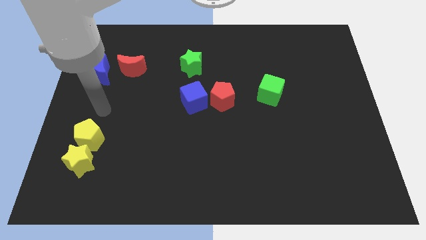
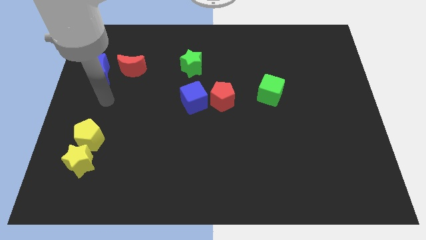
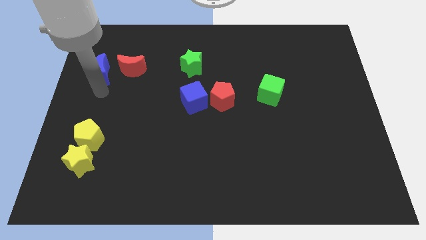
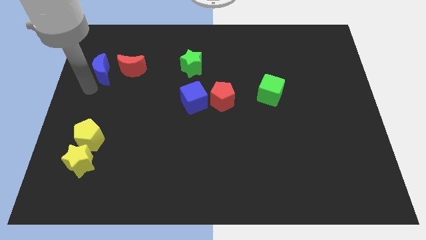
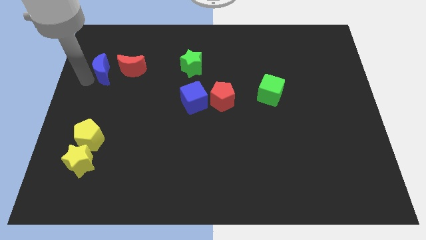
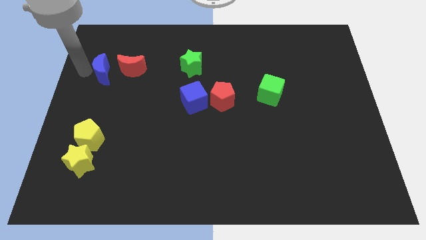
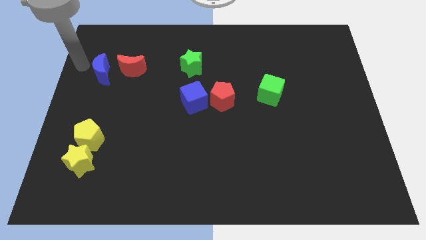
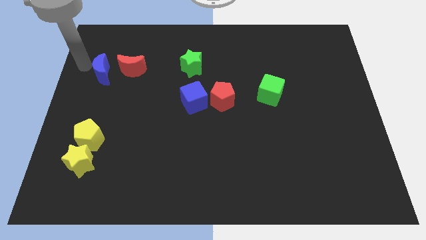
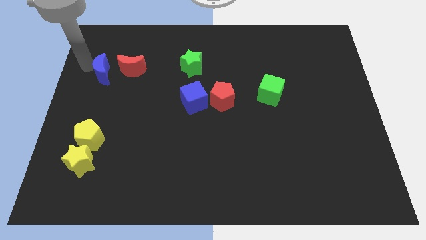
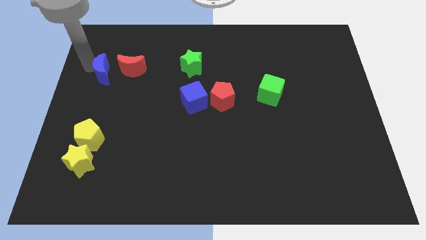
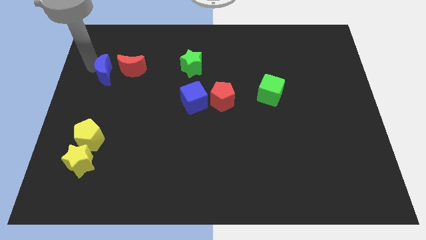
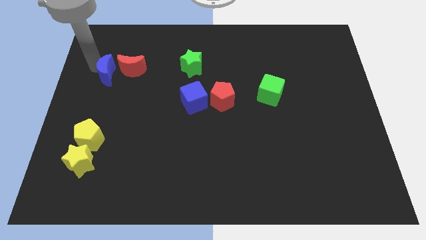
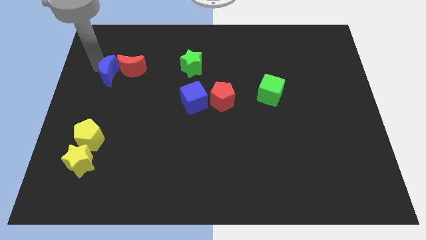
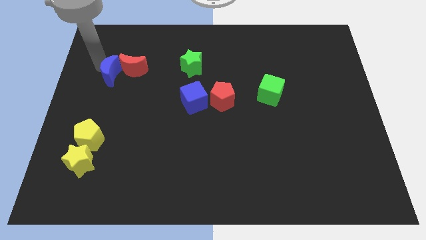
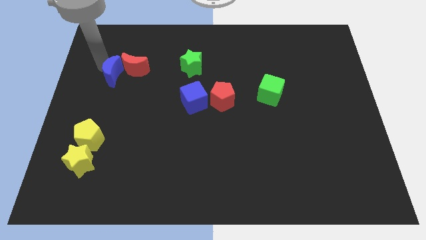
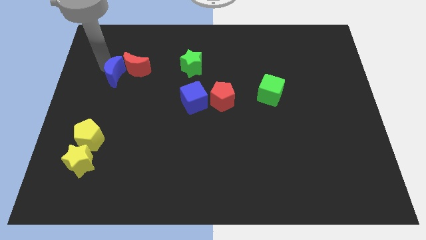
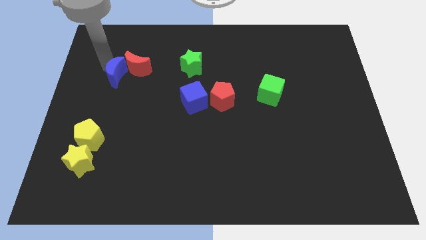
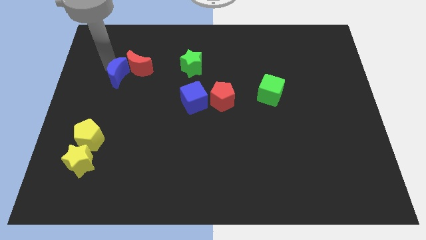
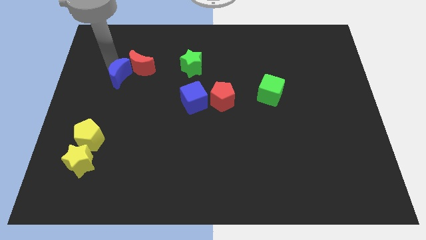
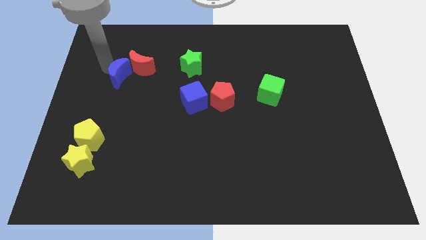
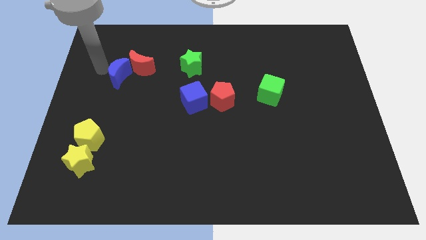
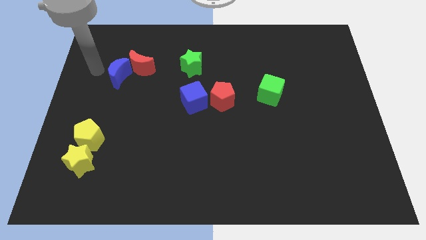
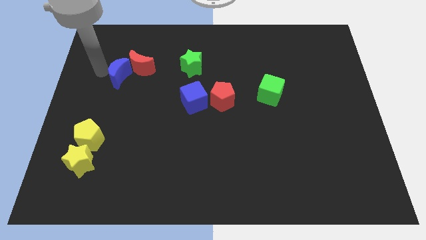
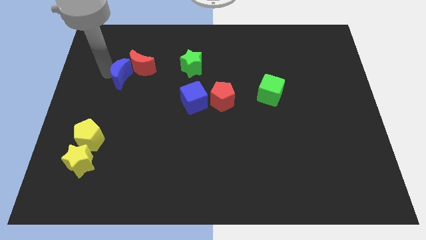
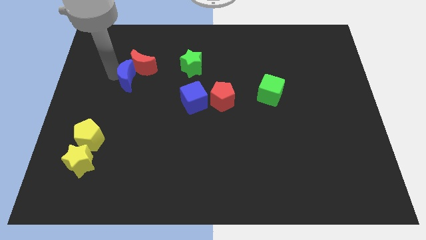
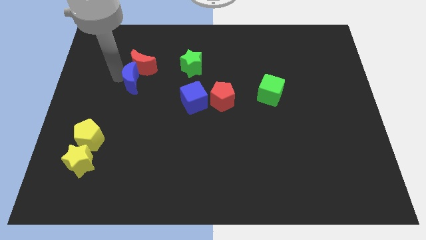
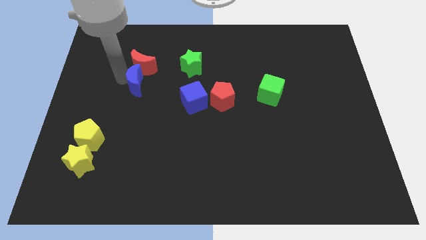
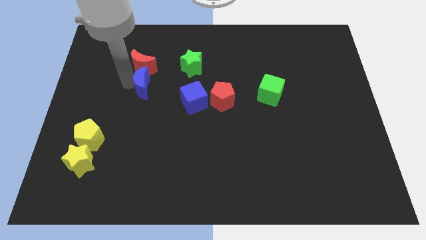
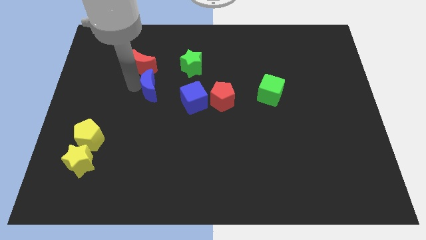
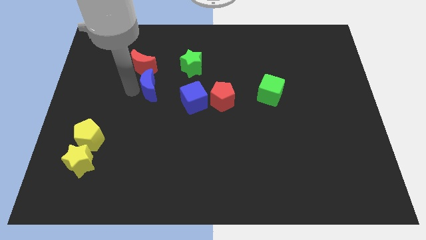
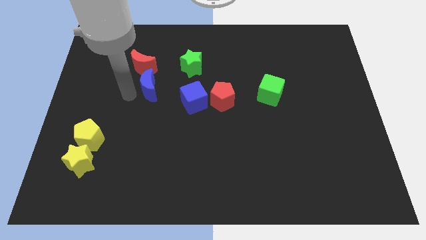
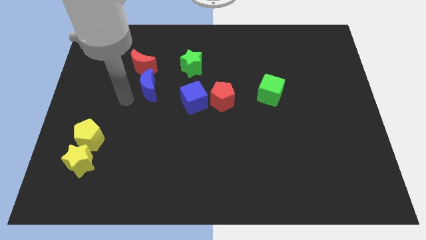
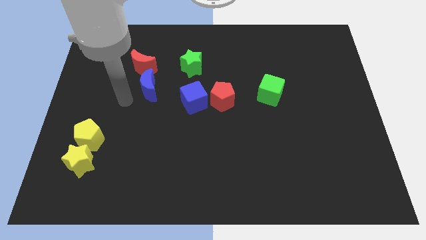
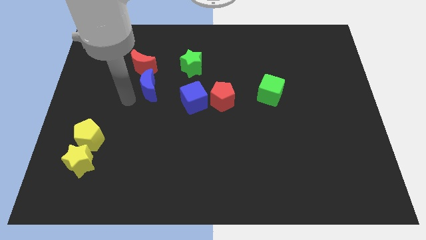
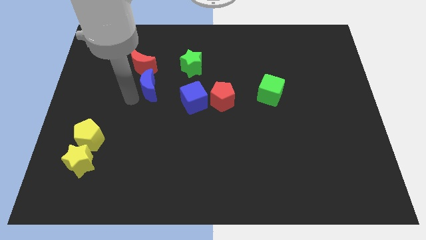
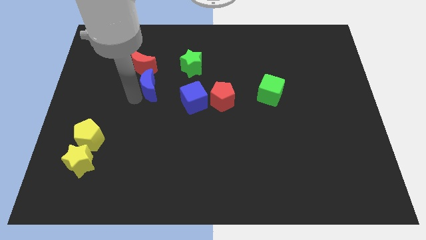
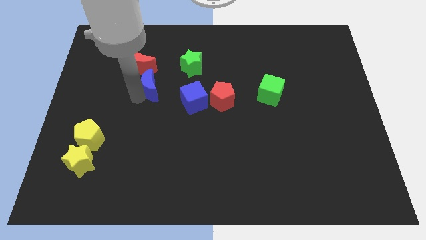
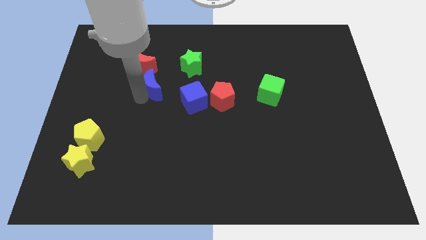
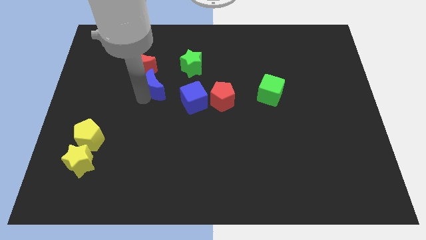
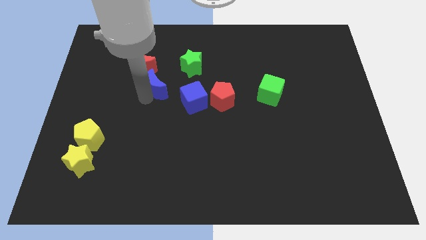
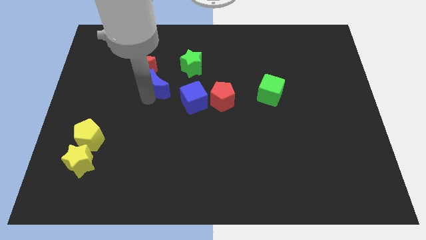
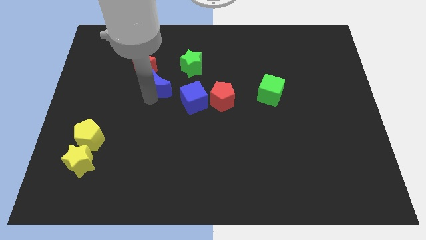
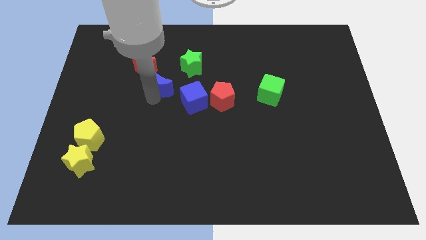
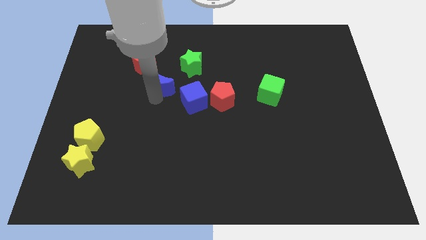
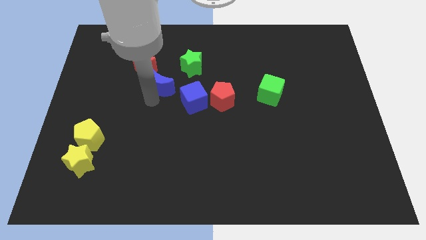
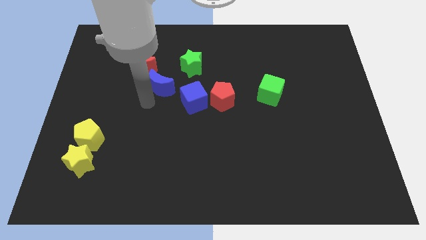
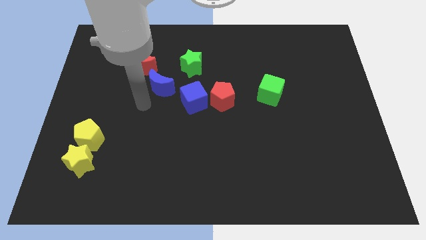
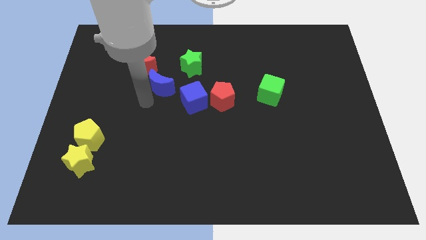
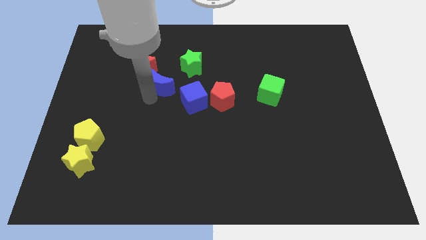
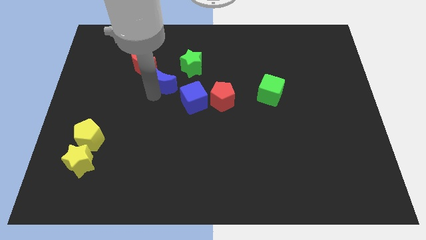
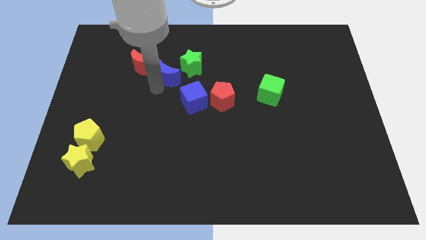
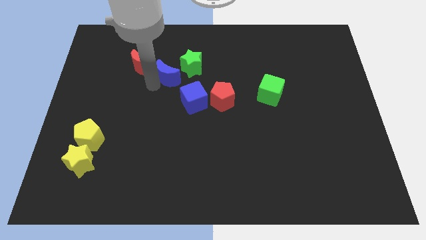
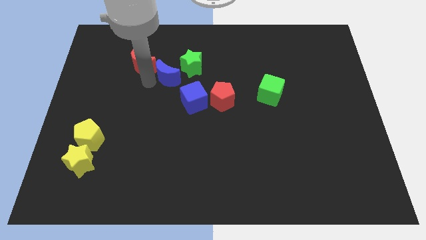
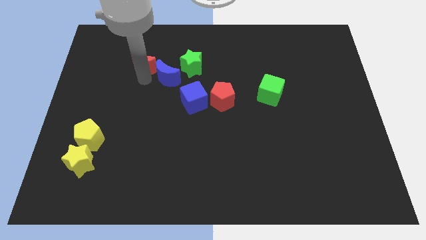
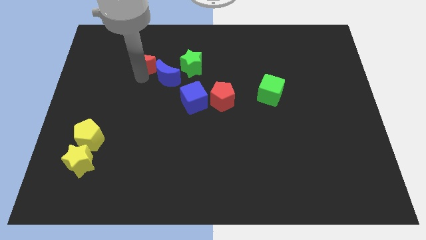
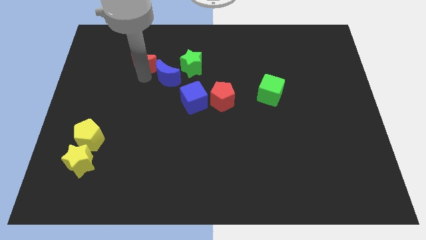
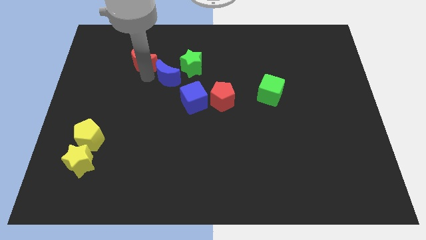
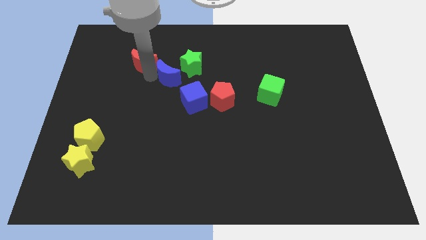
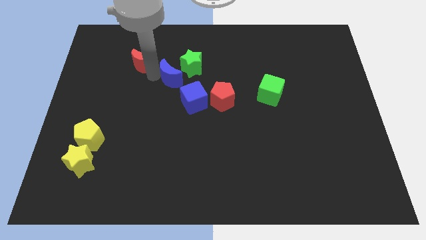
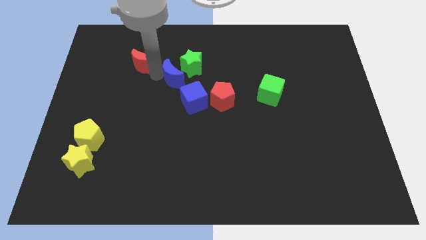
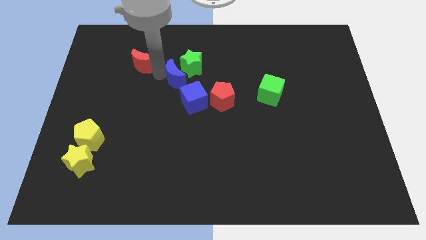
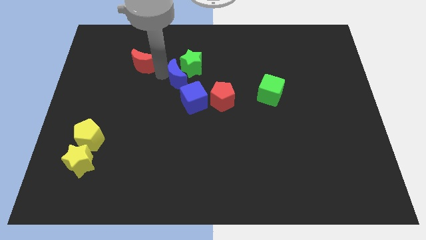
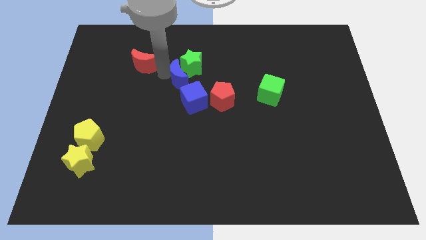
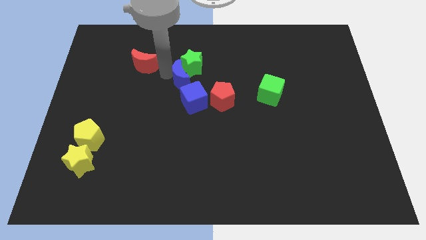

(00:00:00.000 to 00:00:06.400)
push the blue moon to the right

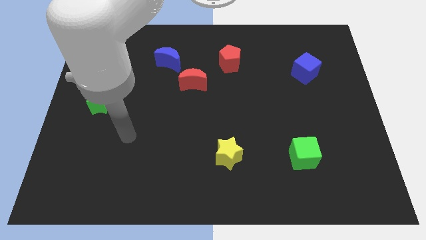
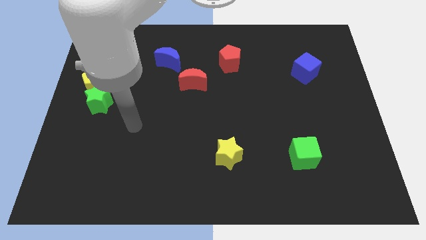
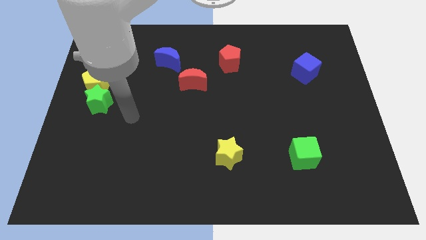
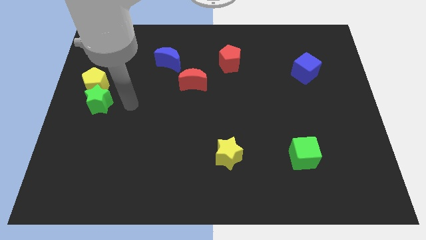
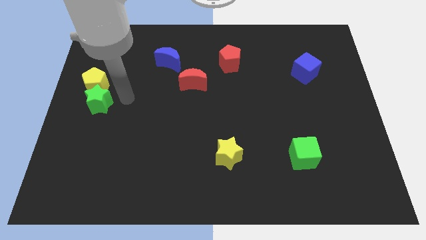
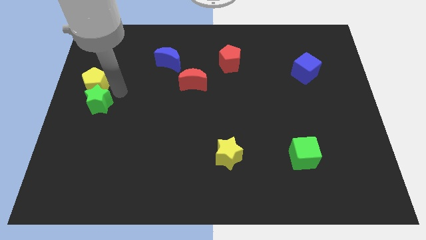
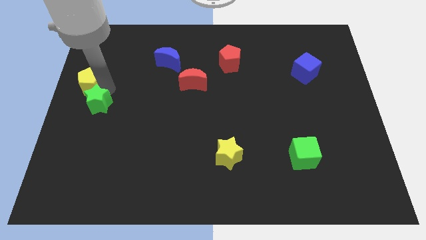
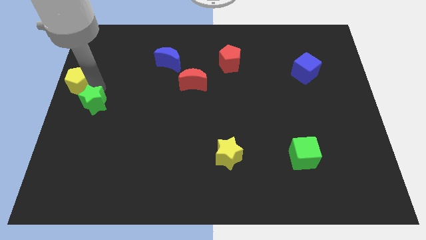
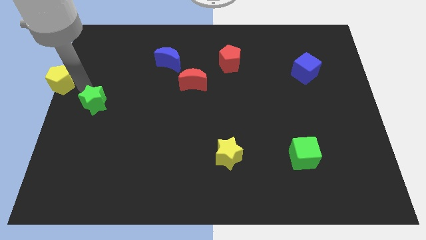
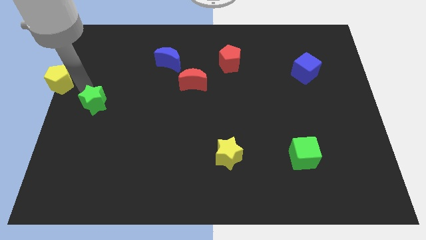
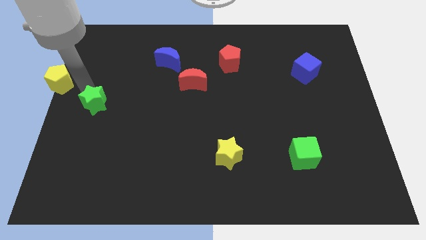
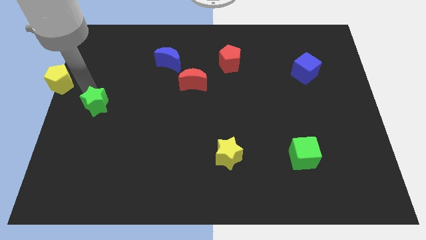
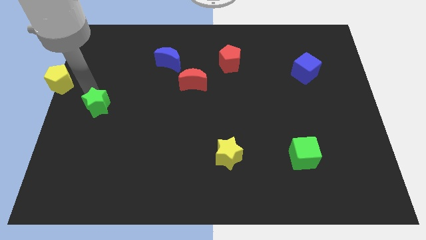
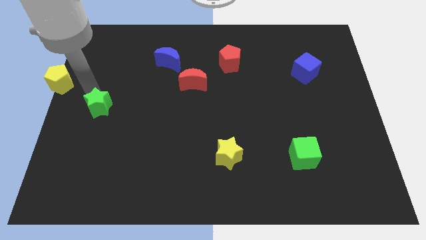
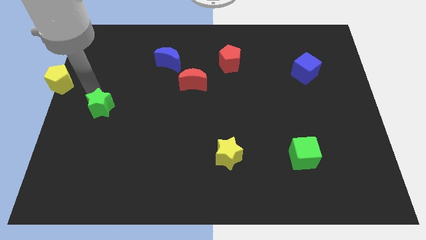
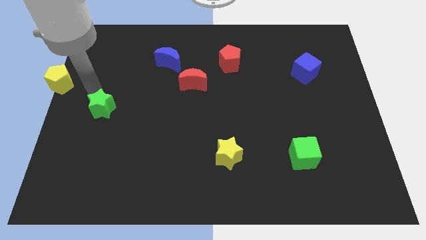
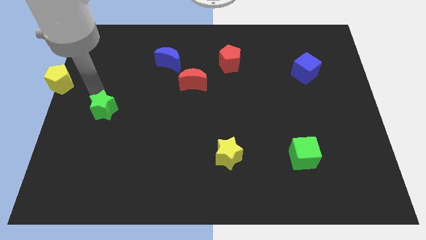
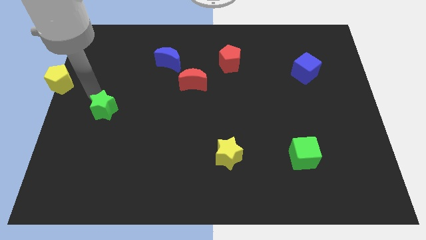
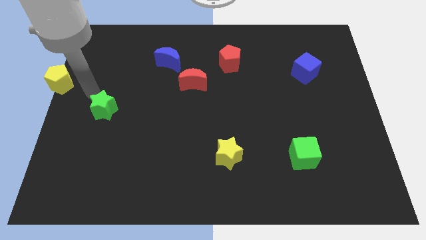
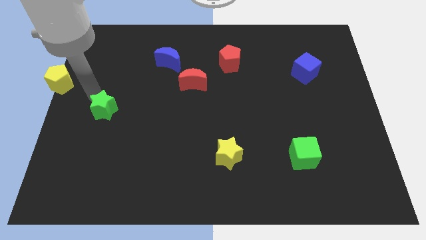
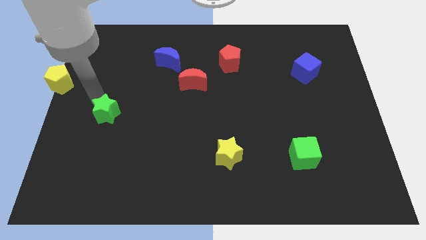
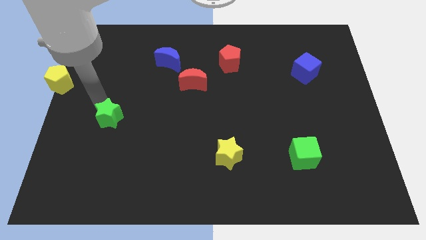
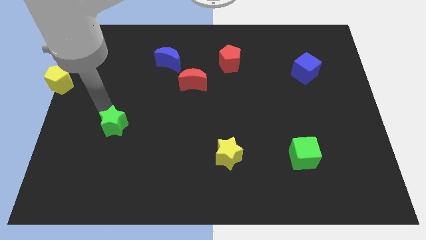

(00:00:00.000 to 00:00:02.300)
slightly push the green star down and to the right
